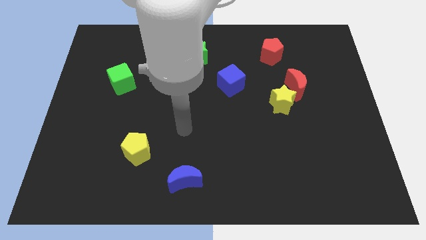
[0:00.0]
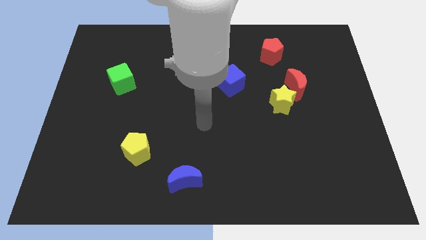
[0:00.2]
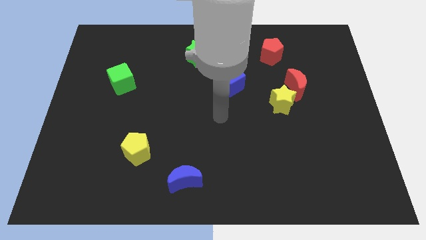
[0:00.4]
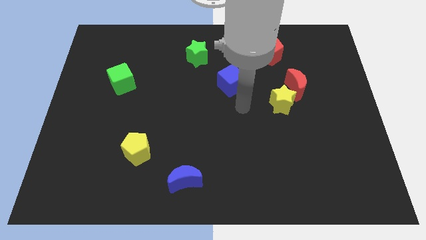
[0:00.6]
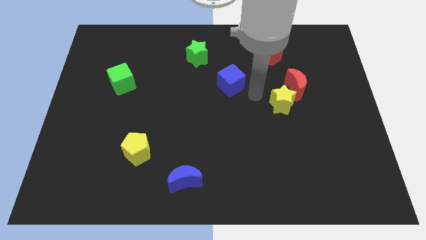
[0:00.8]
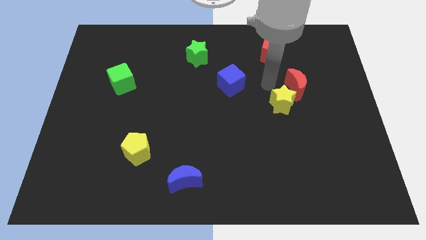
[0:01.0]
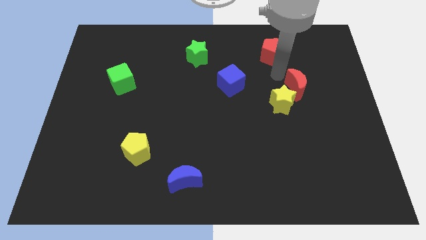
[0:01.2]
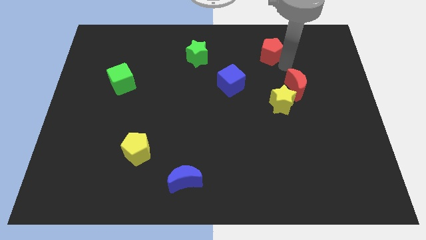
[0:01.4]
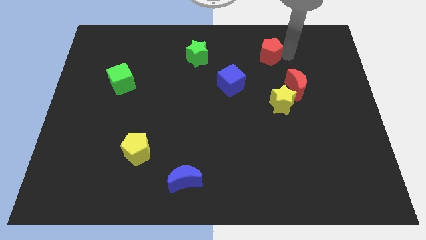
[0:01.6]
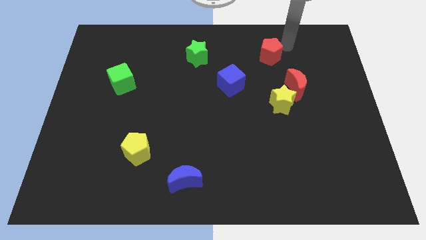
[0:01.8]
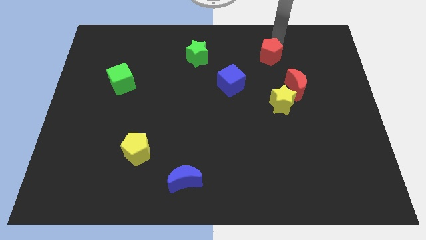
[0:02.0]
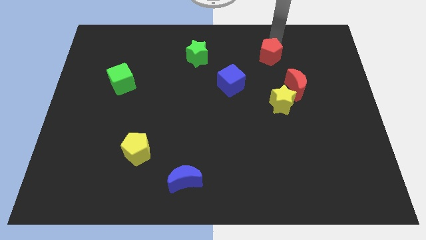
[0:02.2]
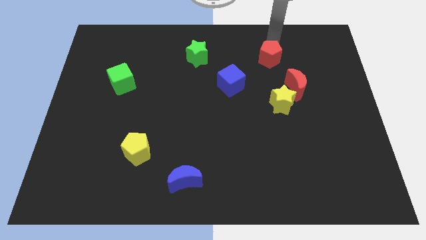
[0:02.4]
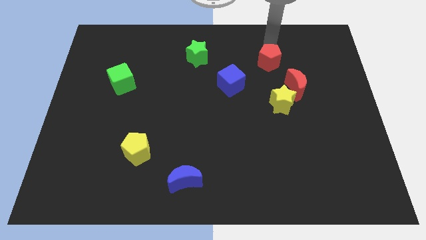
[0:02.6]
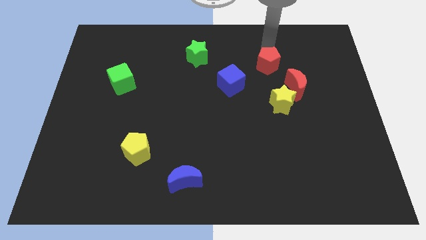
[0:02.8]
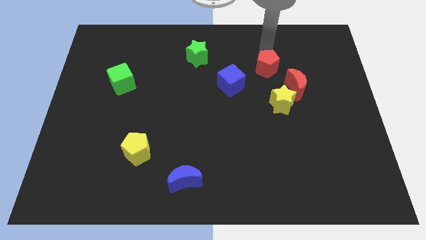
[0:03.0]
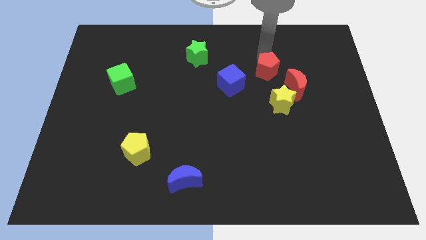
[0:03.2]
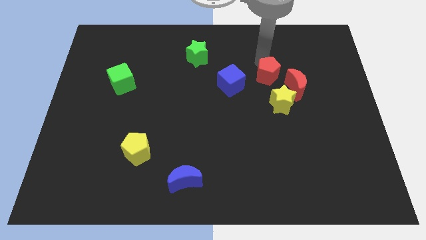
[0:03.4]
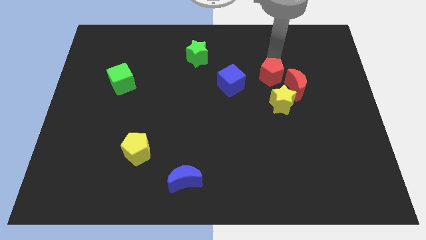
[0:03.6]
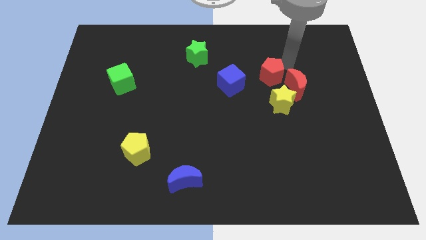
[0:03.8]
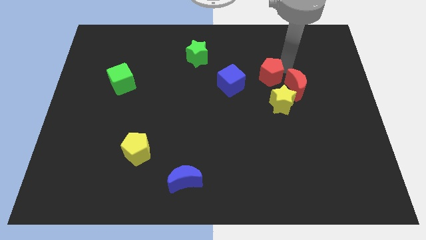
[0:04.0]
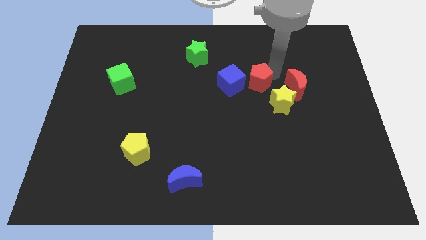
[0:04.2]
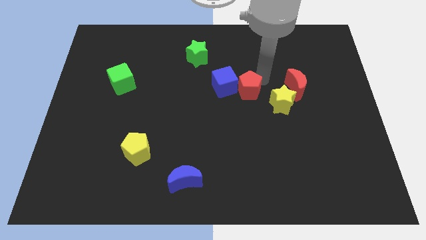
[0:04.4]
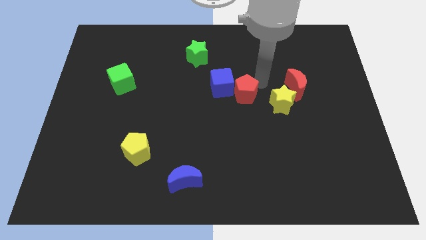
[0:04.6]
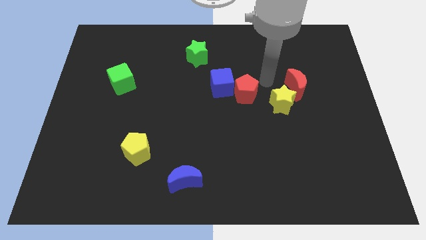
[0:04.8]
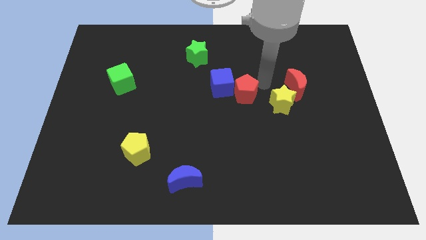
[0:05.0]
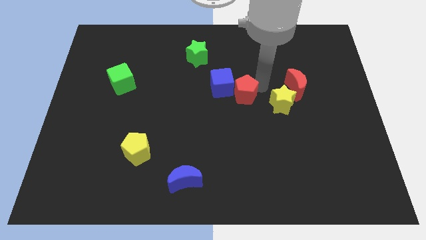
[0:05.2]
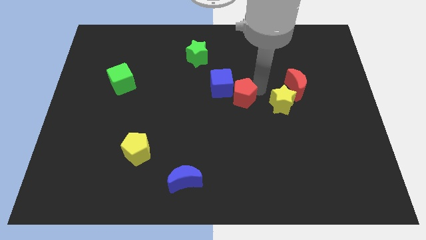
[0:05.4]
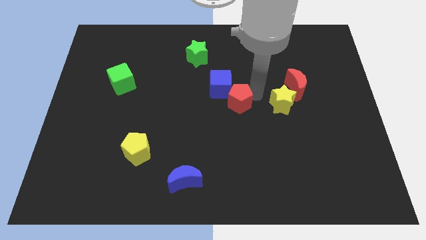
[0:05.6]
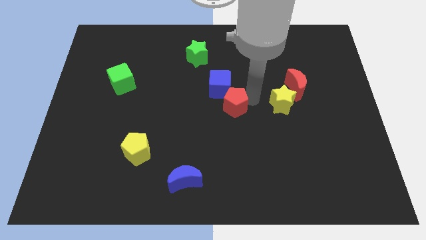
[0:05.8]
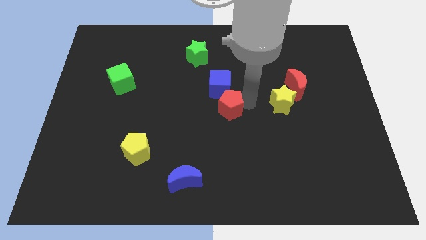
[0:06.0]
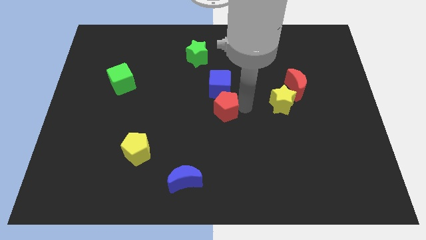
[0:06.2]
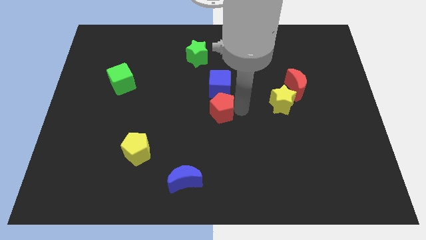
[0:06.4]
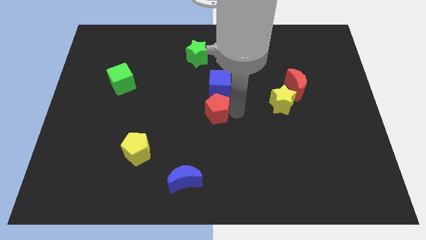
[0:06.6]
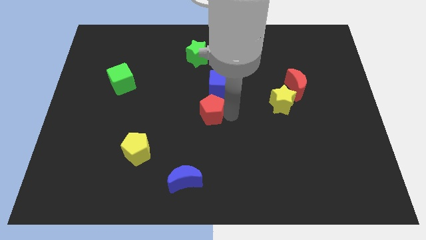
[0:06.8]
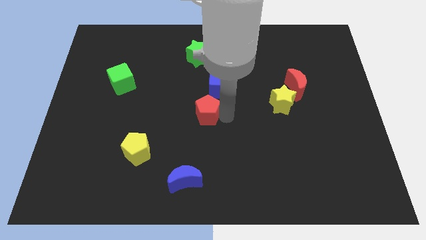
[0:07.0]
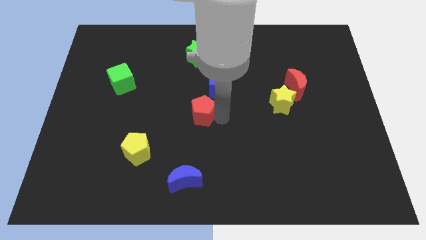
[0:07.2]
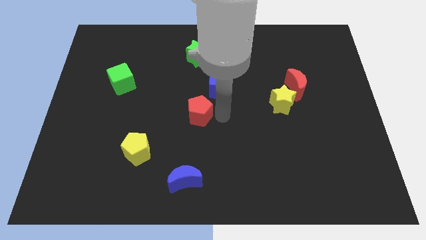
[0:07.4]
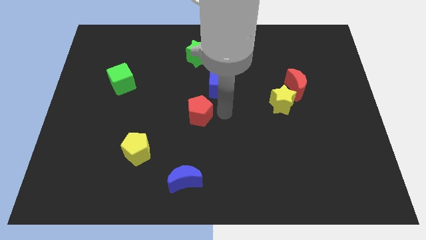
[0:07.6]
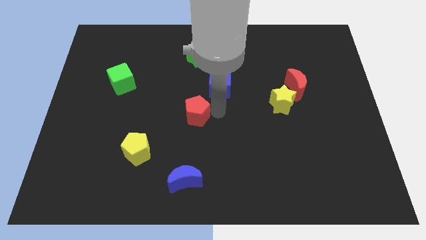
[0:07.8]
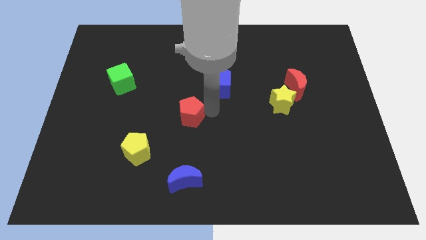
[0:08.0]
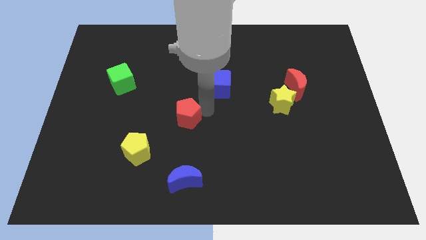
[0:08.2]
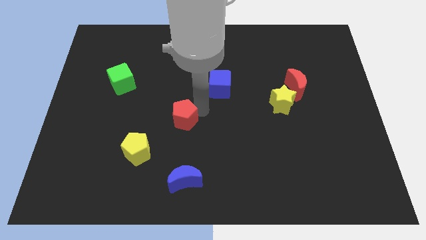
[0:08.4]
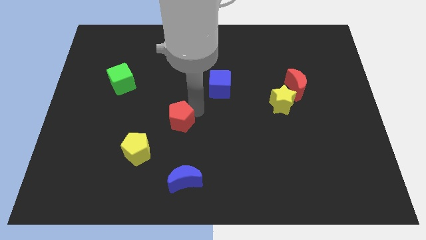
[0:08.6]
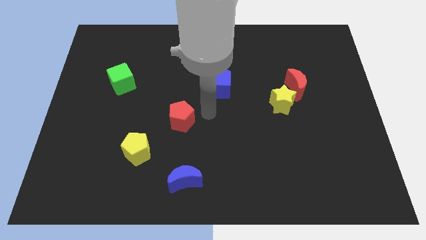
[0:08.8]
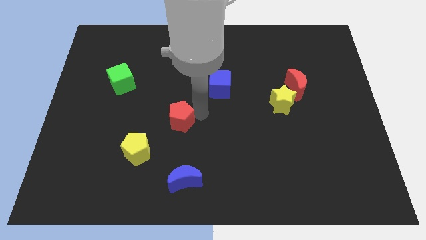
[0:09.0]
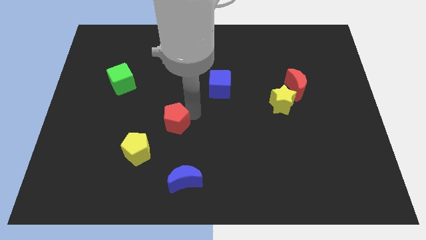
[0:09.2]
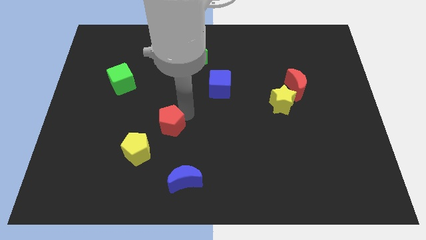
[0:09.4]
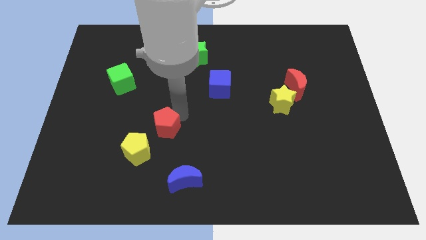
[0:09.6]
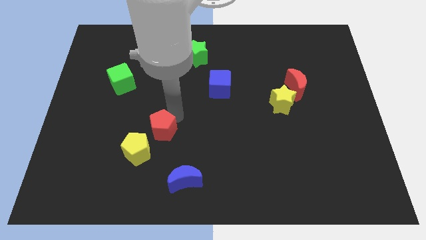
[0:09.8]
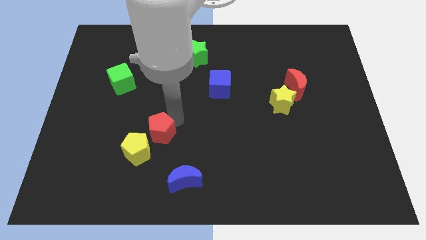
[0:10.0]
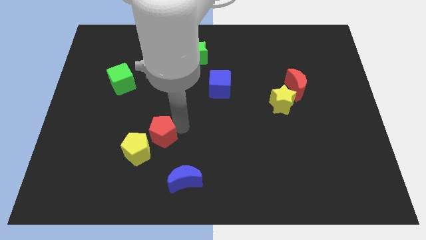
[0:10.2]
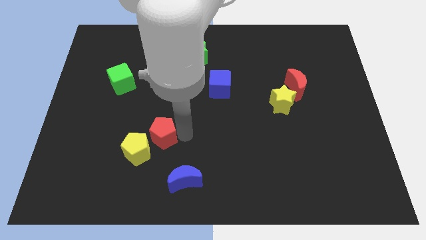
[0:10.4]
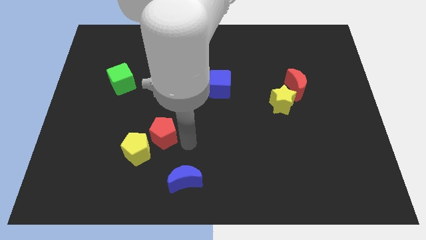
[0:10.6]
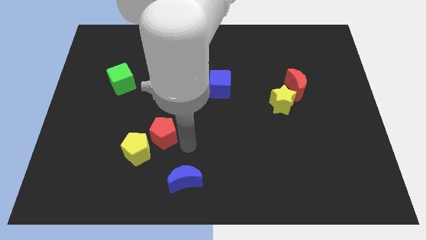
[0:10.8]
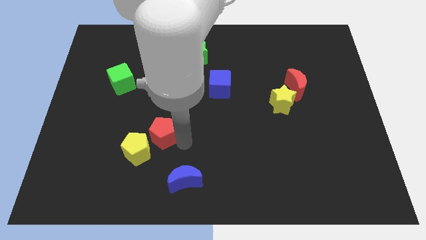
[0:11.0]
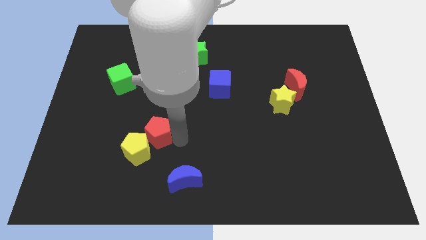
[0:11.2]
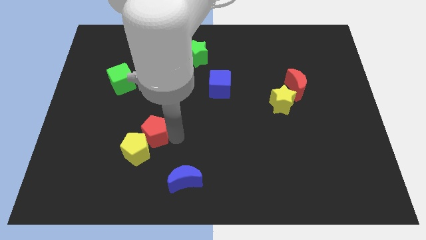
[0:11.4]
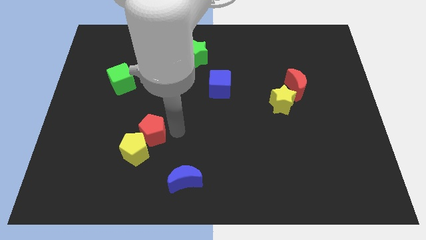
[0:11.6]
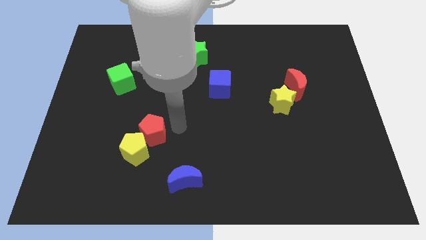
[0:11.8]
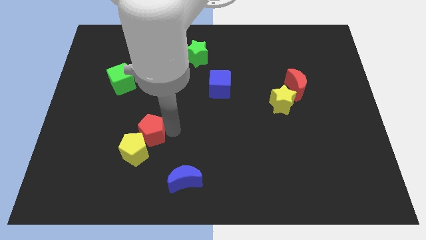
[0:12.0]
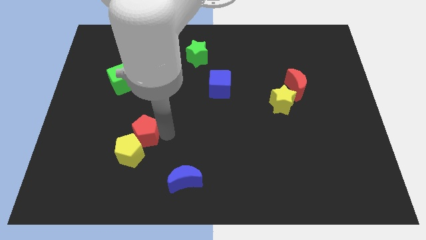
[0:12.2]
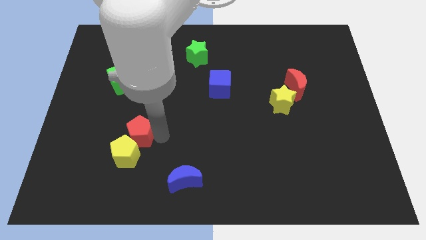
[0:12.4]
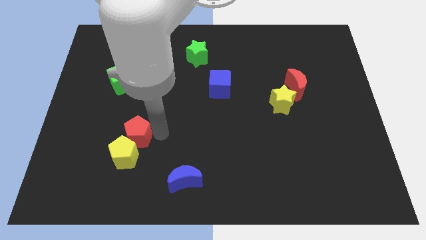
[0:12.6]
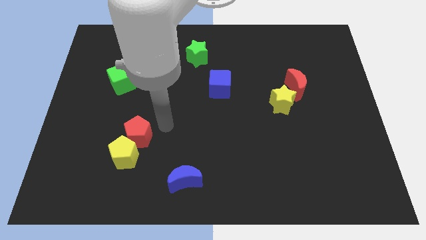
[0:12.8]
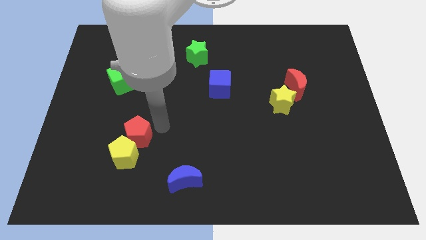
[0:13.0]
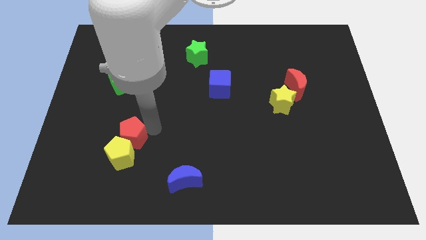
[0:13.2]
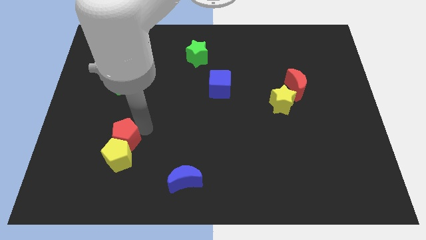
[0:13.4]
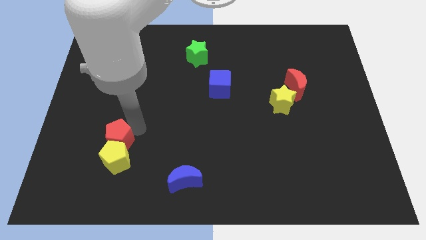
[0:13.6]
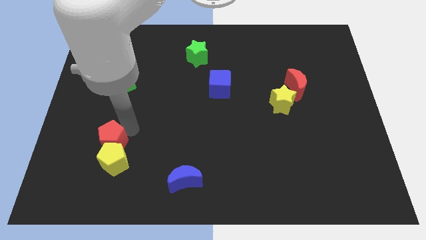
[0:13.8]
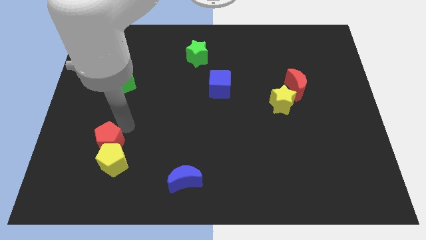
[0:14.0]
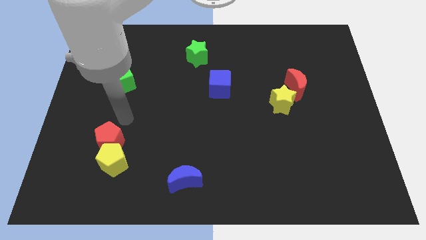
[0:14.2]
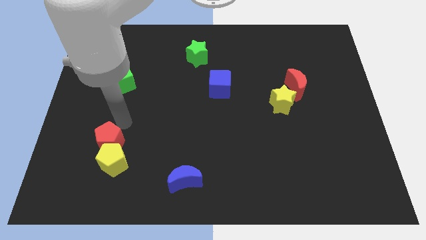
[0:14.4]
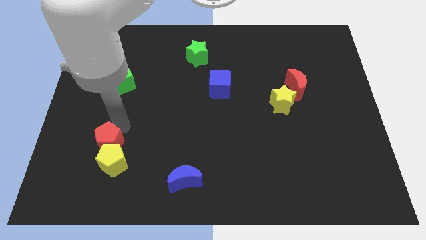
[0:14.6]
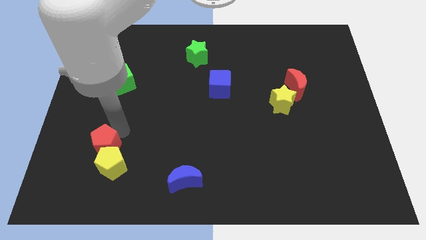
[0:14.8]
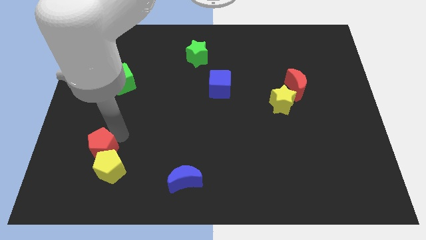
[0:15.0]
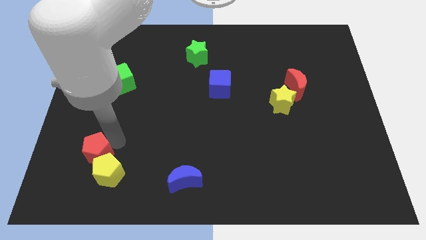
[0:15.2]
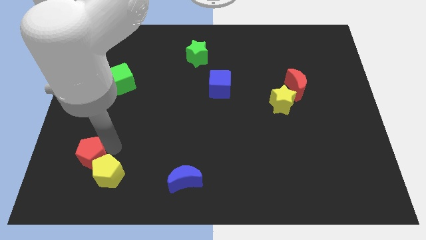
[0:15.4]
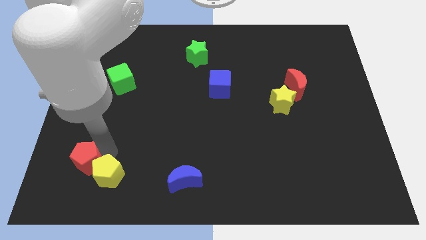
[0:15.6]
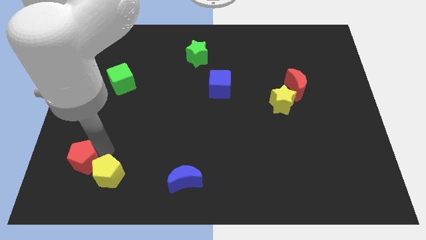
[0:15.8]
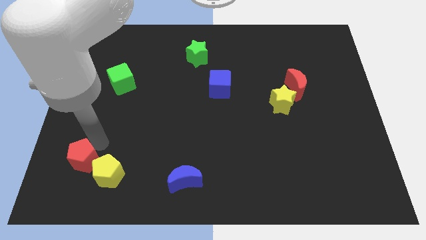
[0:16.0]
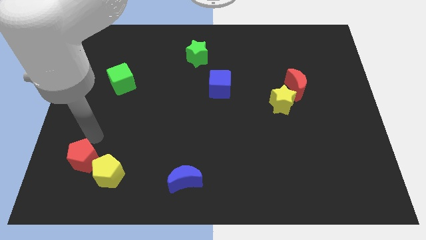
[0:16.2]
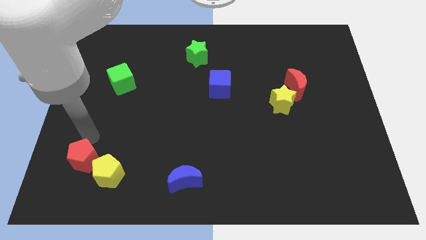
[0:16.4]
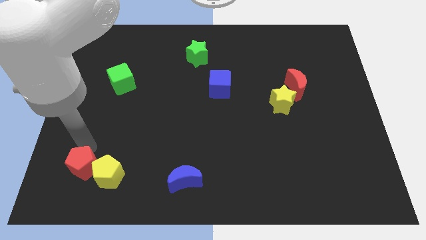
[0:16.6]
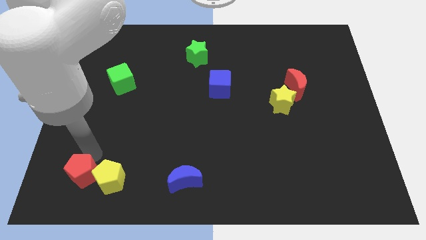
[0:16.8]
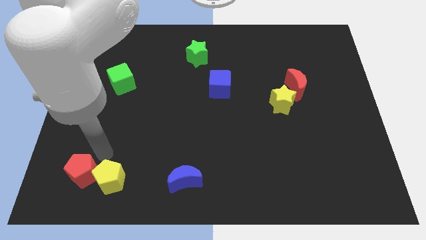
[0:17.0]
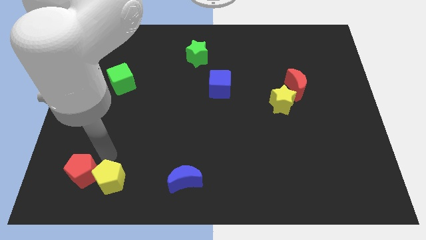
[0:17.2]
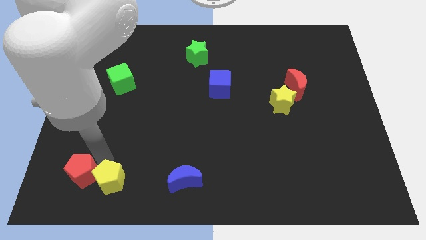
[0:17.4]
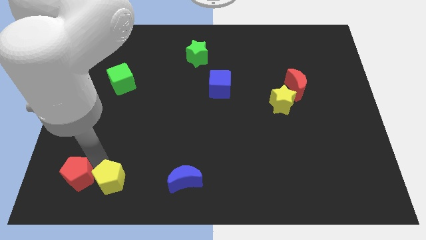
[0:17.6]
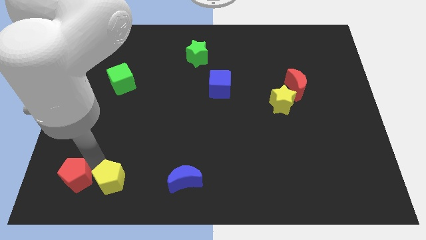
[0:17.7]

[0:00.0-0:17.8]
slide the red pentagon to the bottom left
